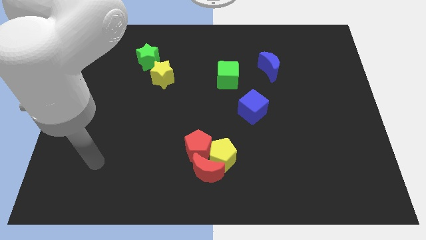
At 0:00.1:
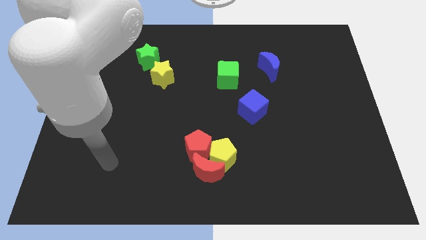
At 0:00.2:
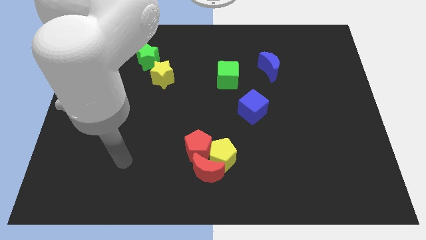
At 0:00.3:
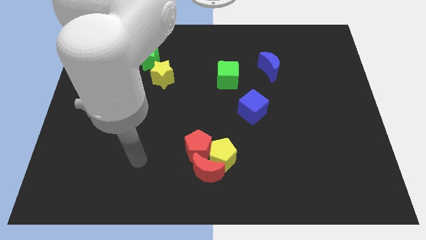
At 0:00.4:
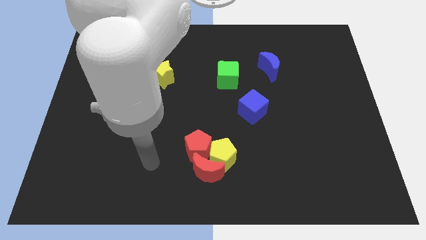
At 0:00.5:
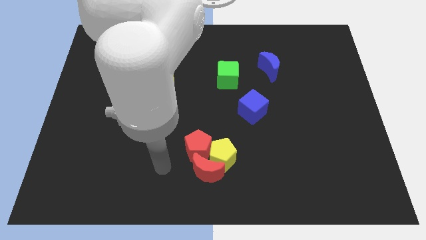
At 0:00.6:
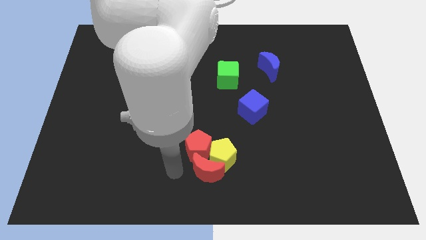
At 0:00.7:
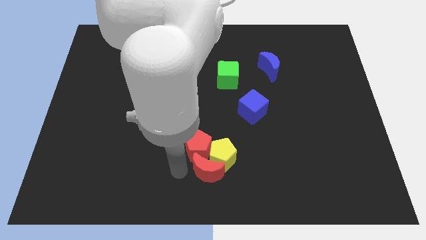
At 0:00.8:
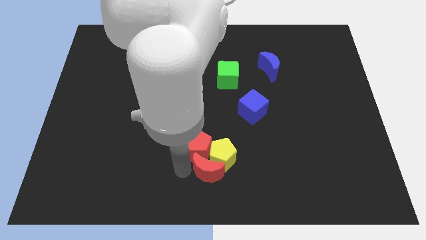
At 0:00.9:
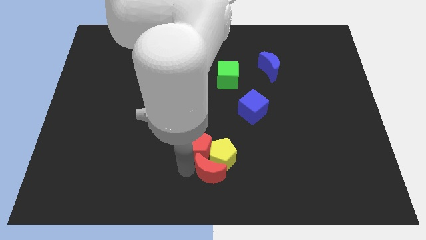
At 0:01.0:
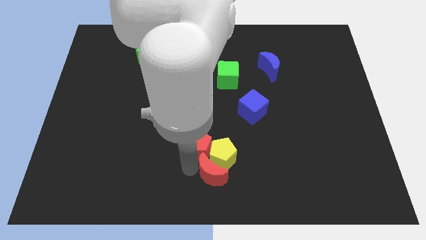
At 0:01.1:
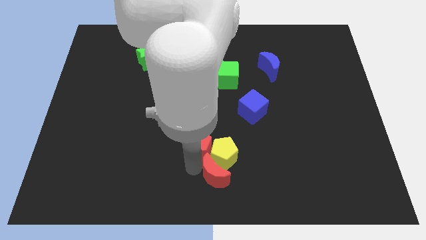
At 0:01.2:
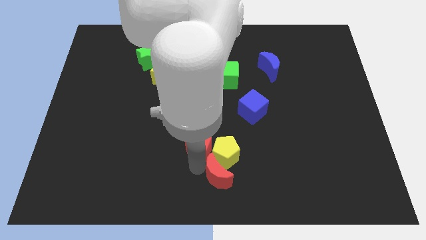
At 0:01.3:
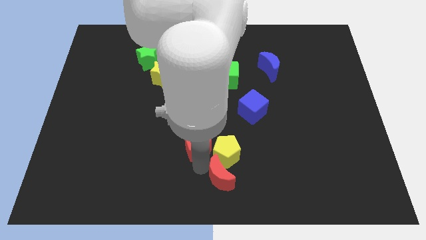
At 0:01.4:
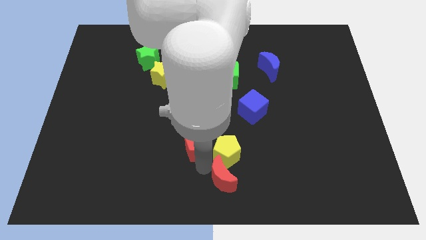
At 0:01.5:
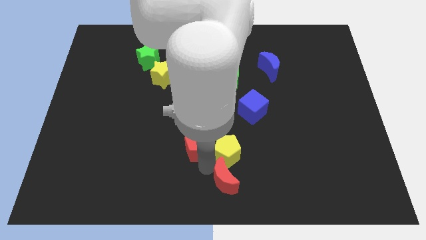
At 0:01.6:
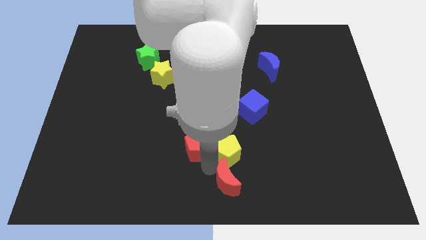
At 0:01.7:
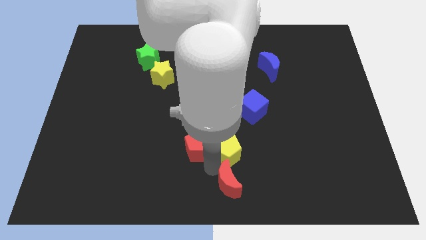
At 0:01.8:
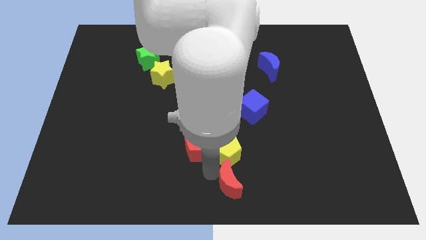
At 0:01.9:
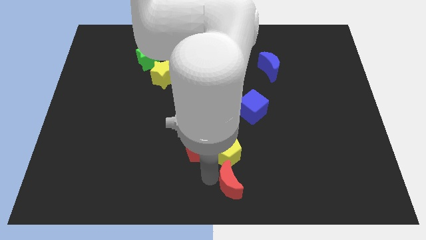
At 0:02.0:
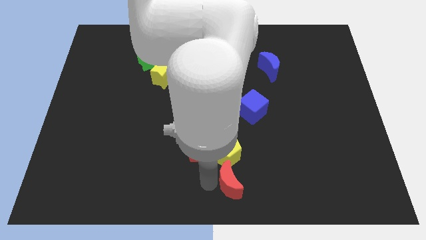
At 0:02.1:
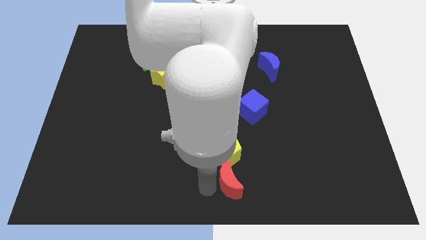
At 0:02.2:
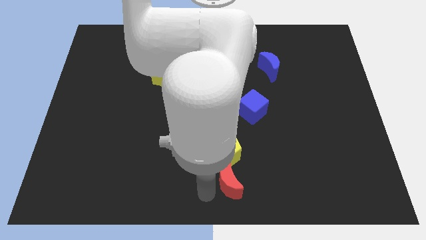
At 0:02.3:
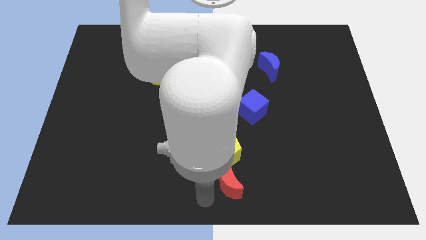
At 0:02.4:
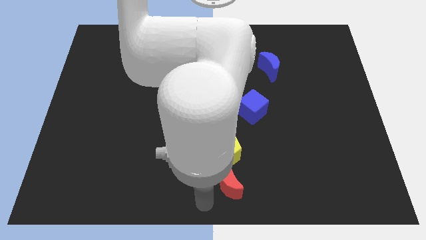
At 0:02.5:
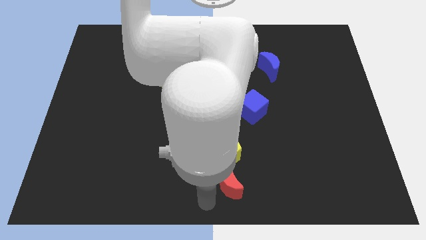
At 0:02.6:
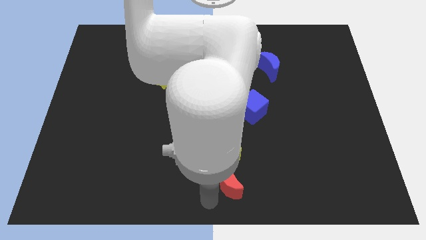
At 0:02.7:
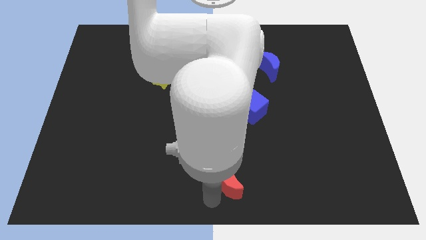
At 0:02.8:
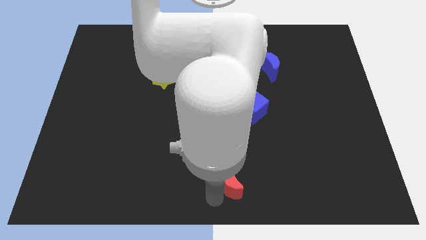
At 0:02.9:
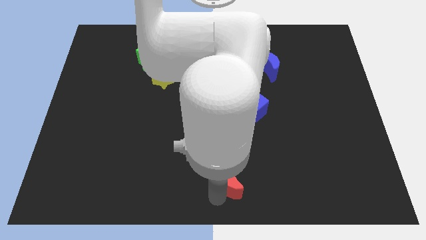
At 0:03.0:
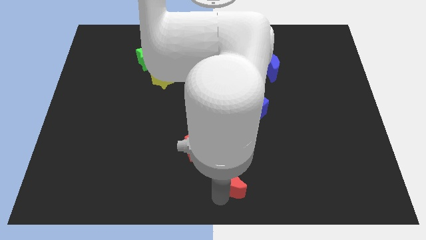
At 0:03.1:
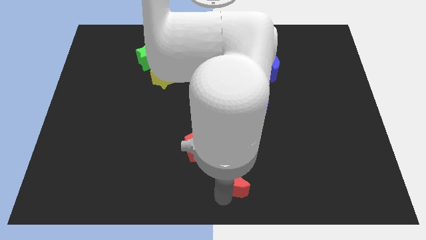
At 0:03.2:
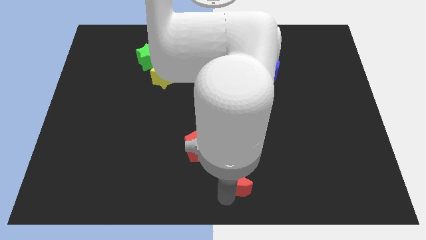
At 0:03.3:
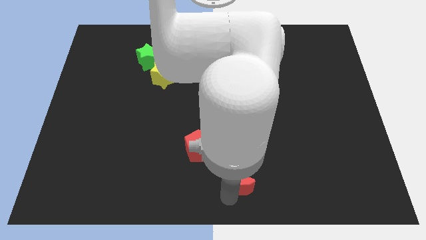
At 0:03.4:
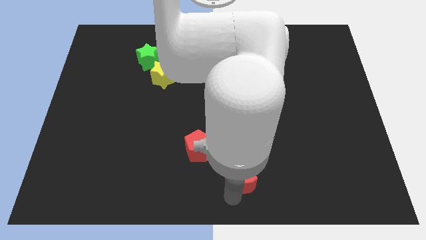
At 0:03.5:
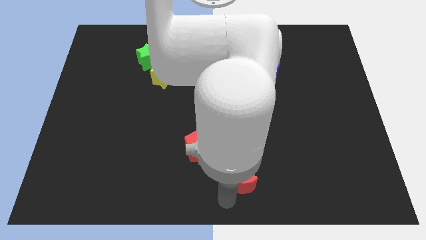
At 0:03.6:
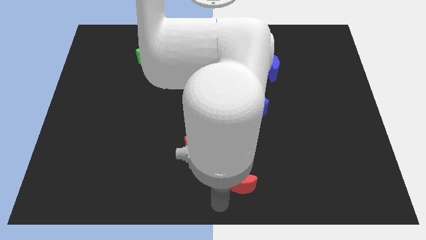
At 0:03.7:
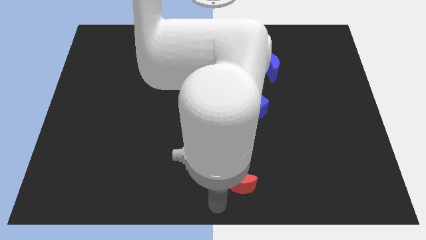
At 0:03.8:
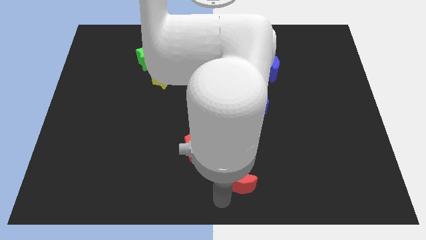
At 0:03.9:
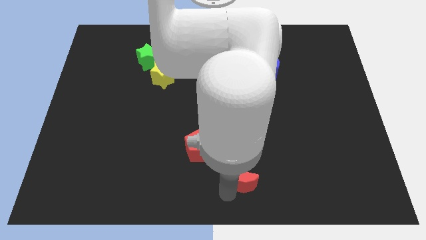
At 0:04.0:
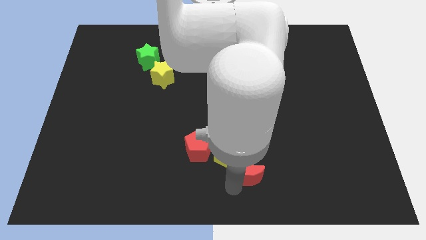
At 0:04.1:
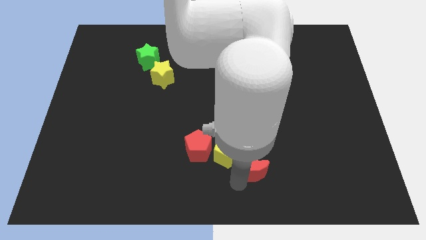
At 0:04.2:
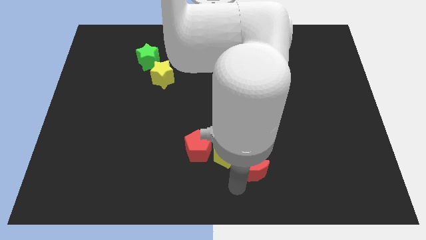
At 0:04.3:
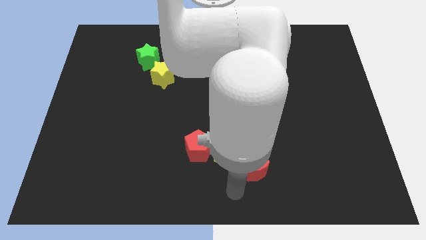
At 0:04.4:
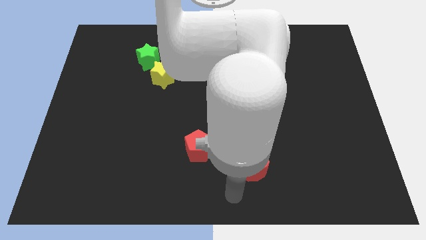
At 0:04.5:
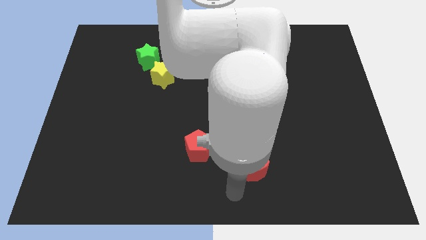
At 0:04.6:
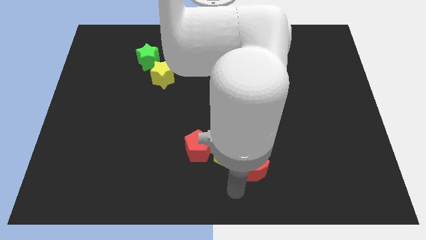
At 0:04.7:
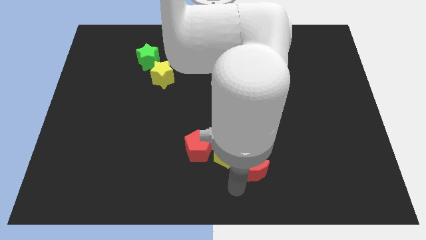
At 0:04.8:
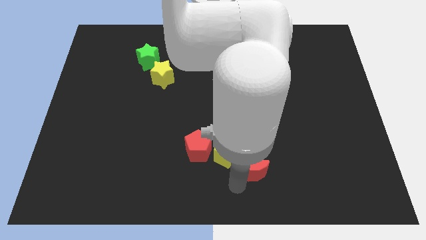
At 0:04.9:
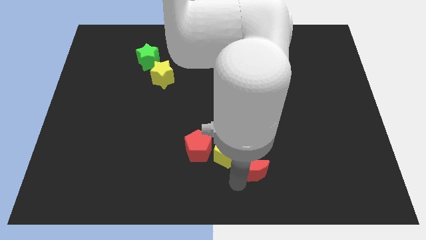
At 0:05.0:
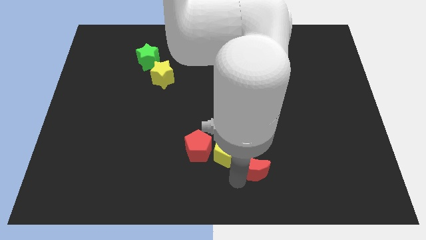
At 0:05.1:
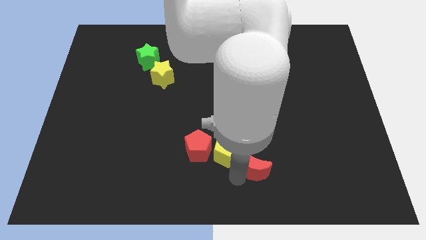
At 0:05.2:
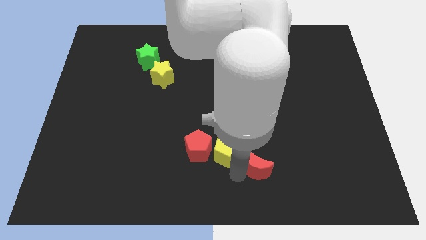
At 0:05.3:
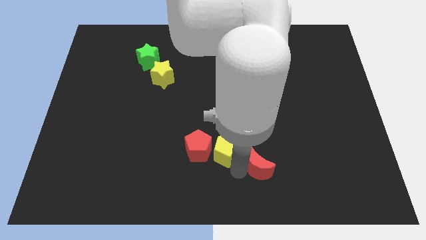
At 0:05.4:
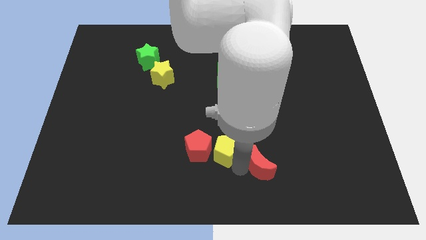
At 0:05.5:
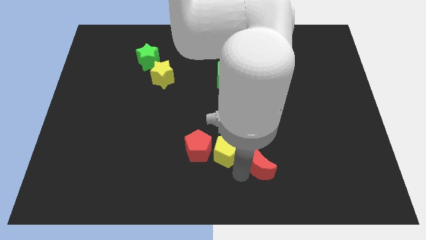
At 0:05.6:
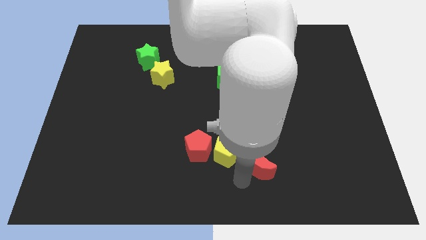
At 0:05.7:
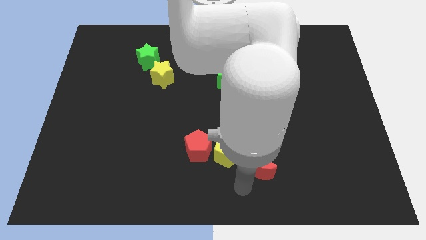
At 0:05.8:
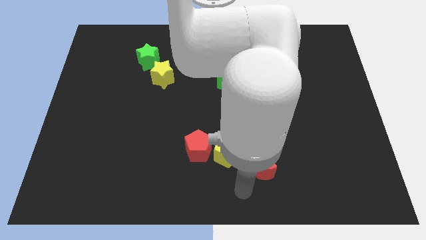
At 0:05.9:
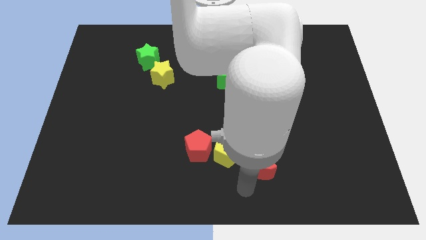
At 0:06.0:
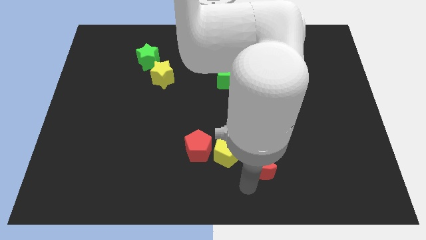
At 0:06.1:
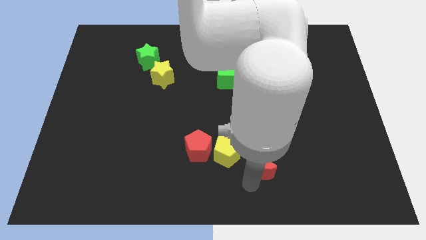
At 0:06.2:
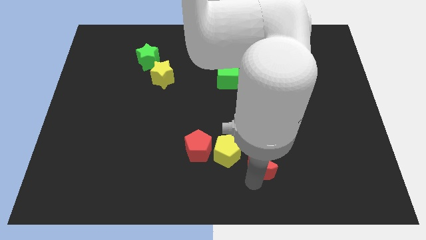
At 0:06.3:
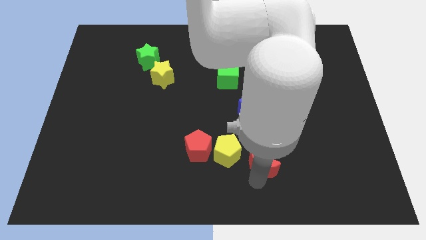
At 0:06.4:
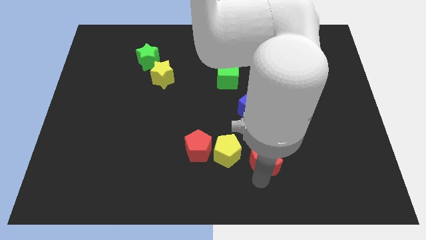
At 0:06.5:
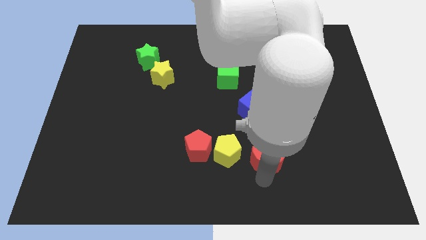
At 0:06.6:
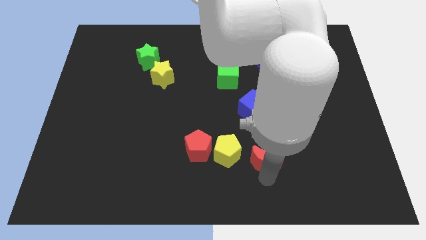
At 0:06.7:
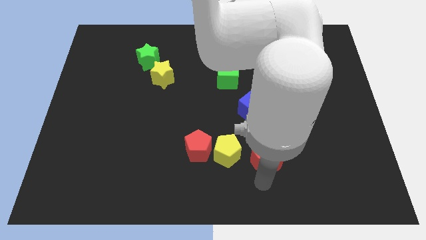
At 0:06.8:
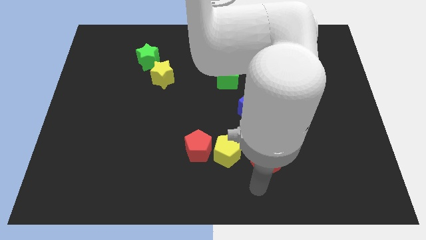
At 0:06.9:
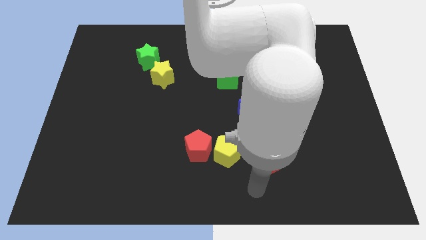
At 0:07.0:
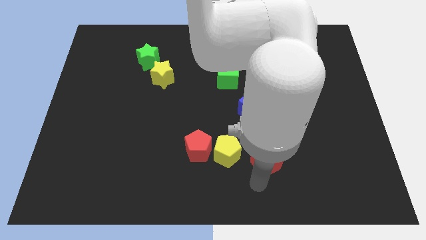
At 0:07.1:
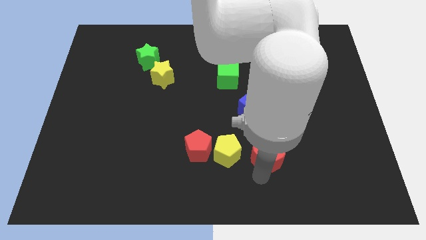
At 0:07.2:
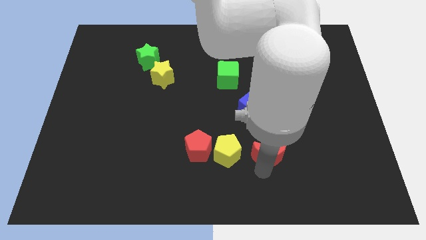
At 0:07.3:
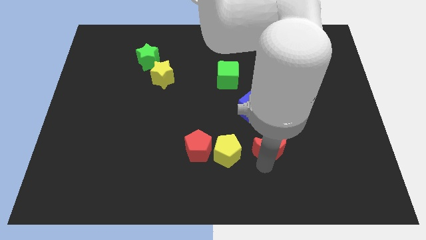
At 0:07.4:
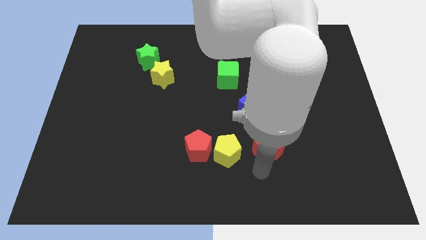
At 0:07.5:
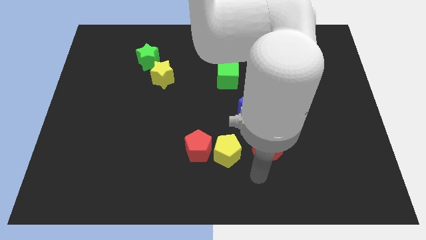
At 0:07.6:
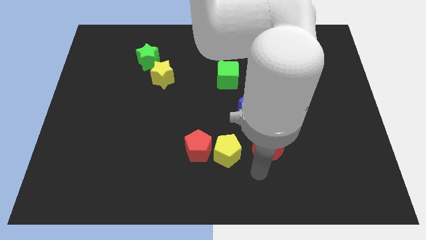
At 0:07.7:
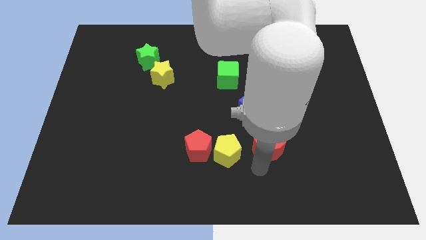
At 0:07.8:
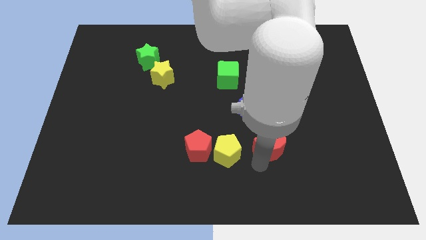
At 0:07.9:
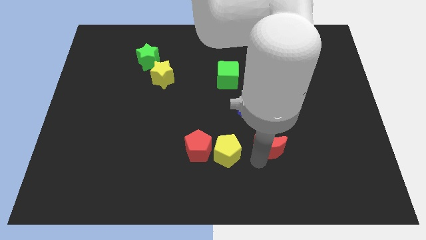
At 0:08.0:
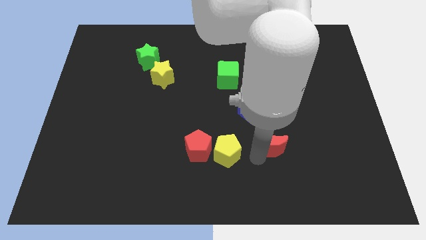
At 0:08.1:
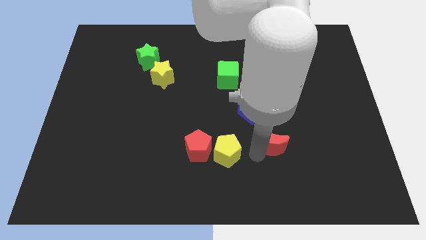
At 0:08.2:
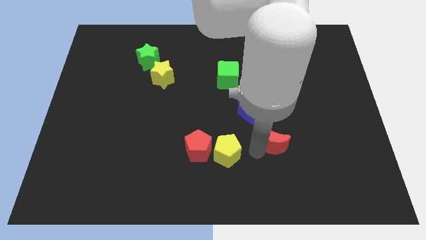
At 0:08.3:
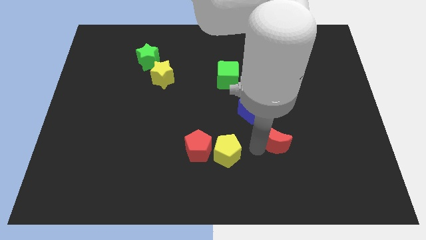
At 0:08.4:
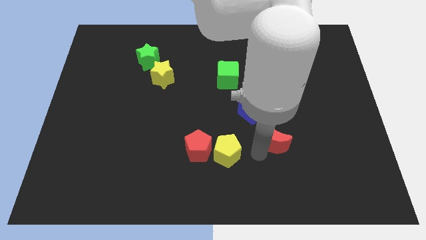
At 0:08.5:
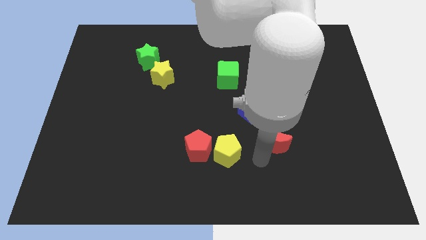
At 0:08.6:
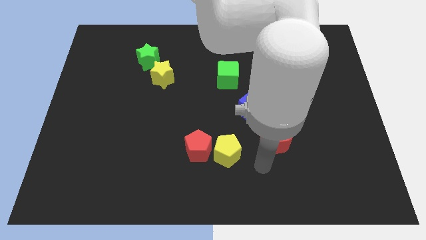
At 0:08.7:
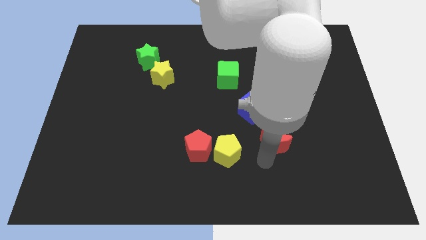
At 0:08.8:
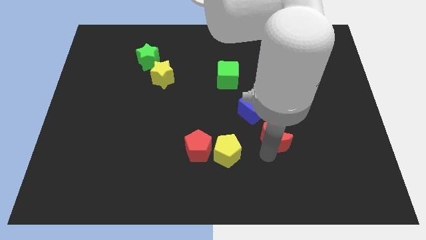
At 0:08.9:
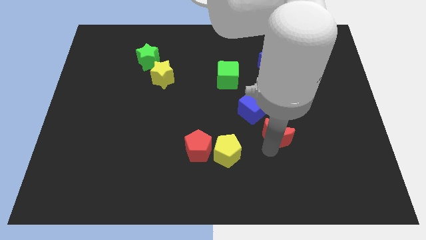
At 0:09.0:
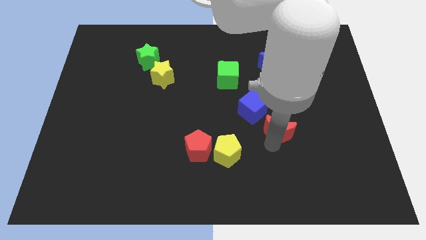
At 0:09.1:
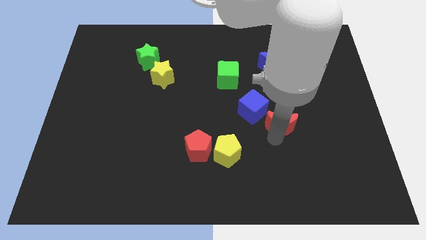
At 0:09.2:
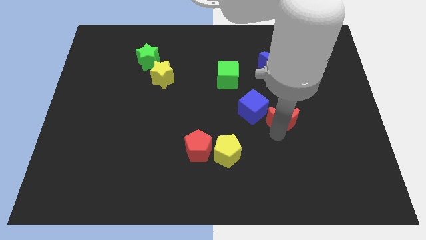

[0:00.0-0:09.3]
push the red moon diagonally up and to the right
